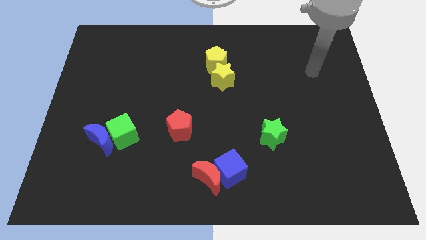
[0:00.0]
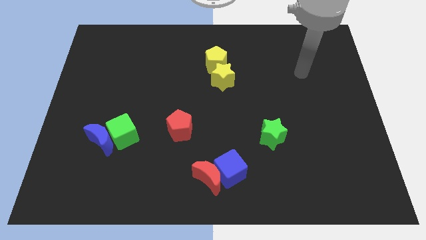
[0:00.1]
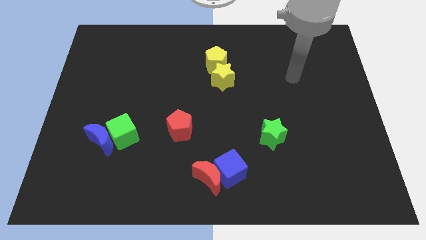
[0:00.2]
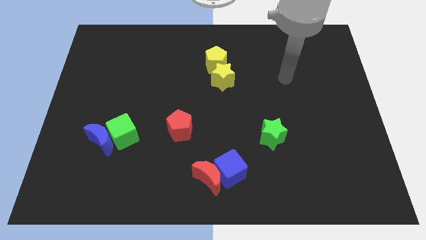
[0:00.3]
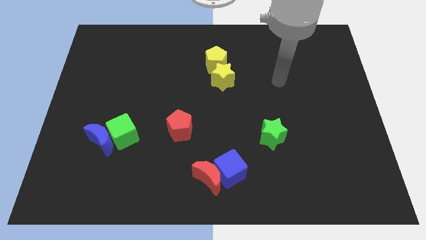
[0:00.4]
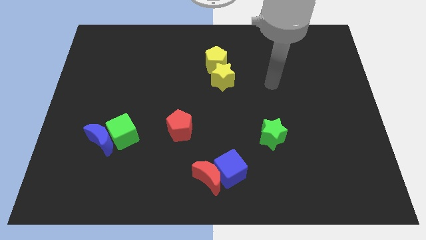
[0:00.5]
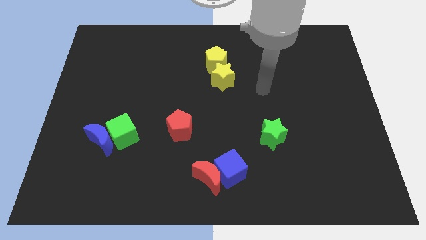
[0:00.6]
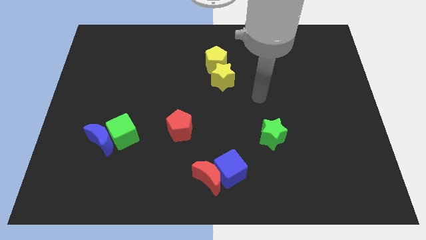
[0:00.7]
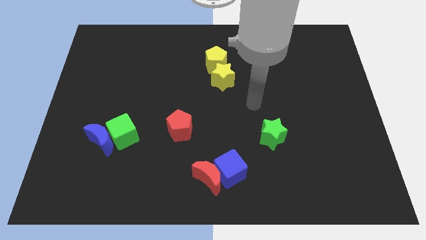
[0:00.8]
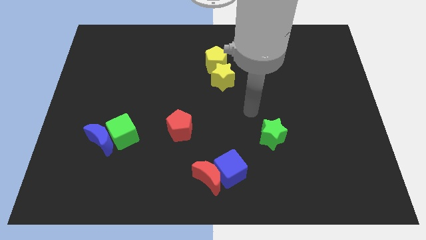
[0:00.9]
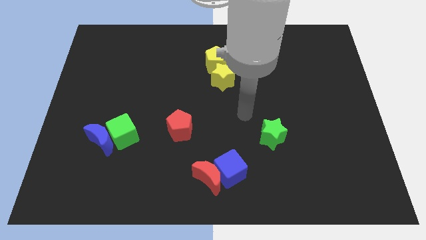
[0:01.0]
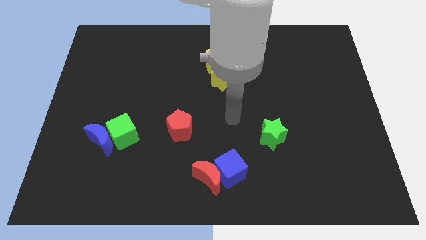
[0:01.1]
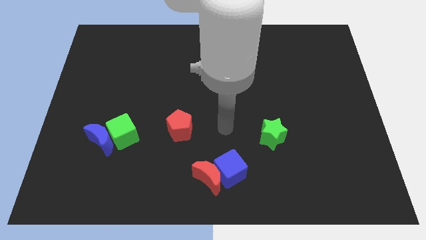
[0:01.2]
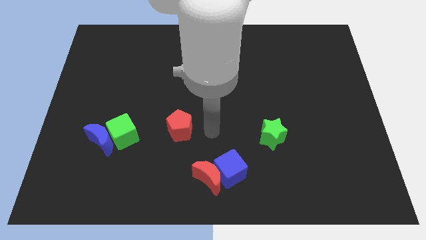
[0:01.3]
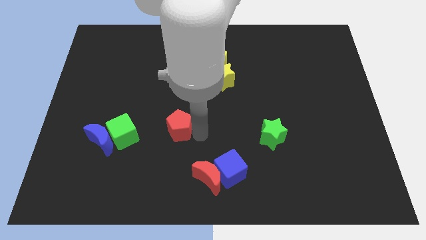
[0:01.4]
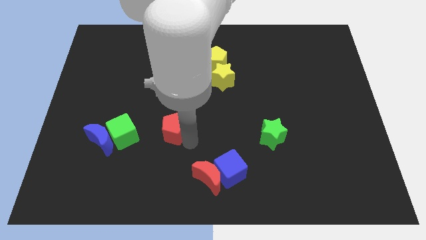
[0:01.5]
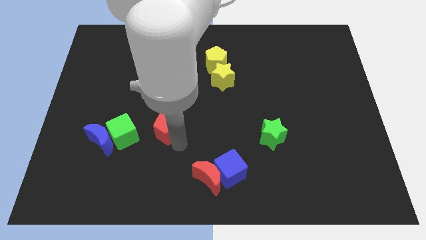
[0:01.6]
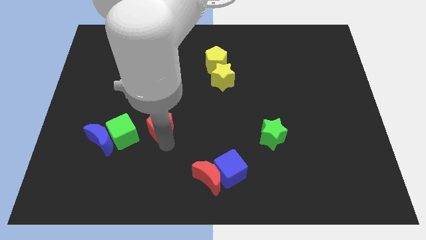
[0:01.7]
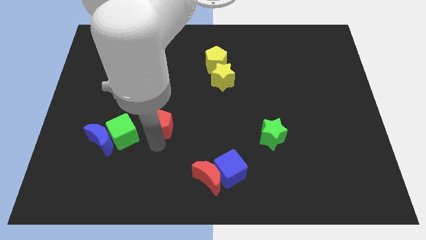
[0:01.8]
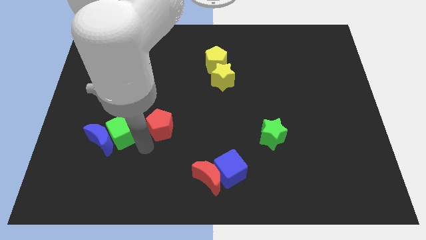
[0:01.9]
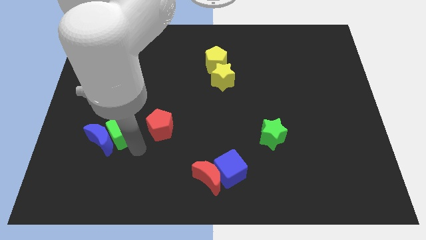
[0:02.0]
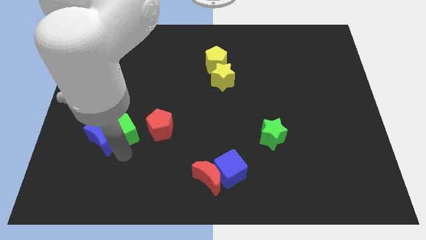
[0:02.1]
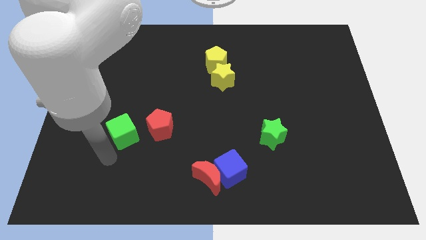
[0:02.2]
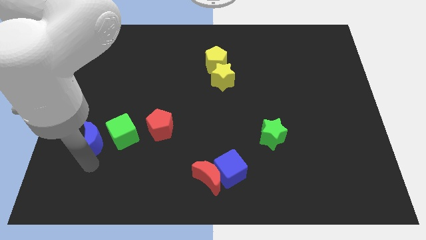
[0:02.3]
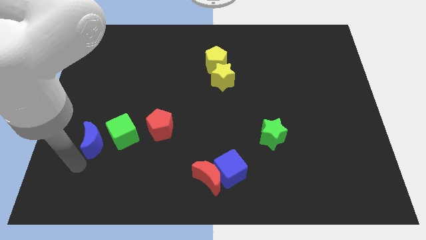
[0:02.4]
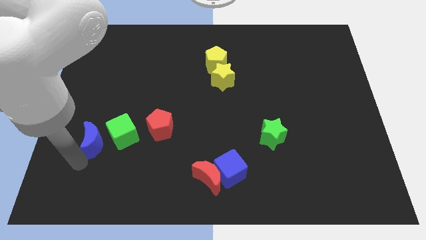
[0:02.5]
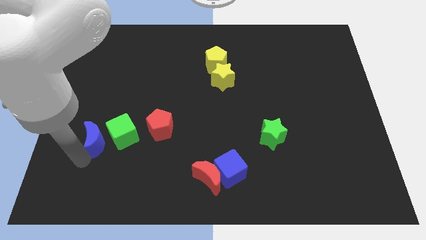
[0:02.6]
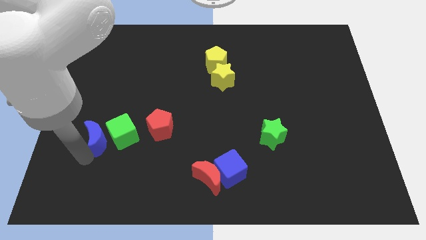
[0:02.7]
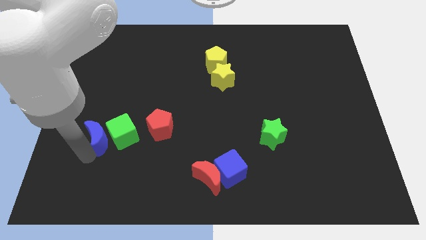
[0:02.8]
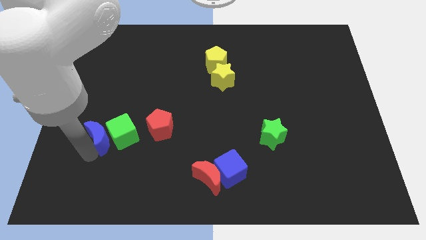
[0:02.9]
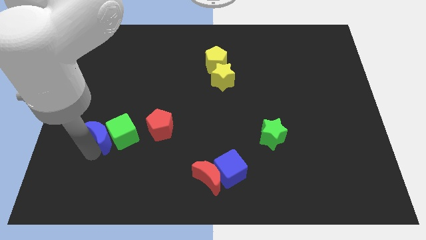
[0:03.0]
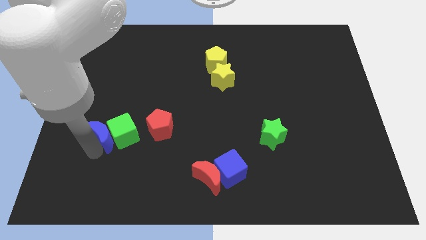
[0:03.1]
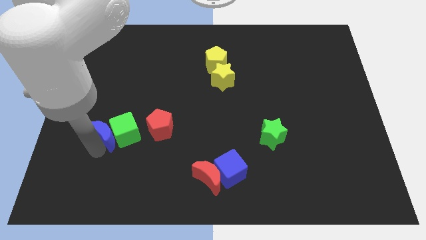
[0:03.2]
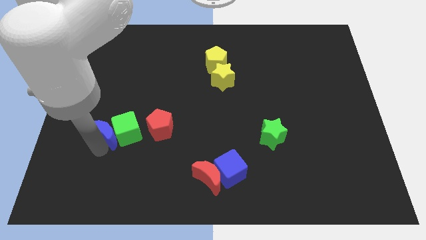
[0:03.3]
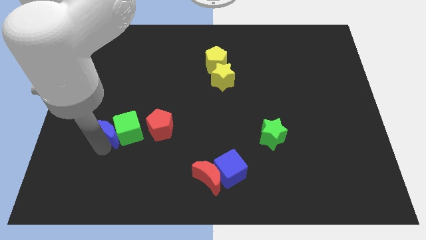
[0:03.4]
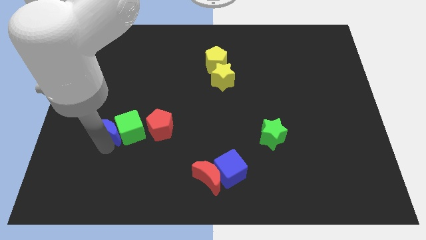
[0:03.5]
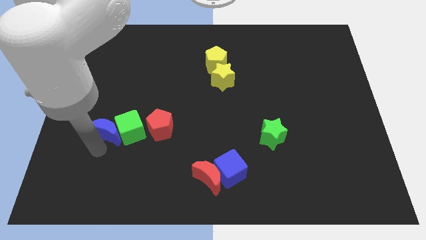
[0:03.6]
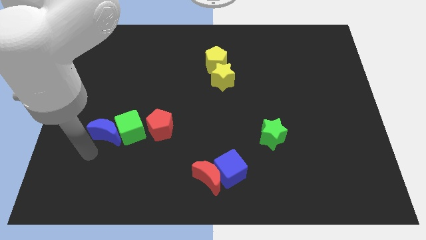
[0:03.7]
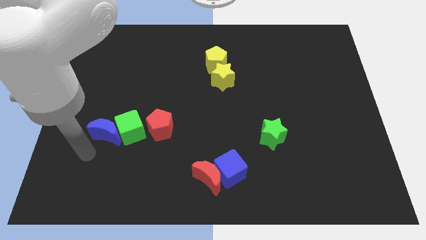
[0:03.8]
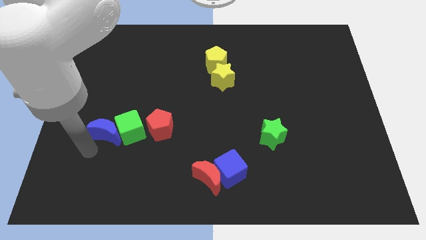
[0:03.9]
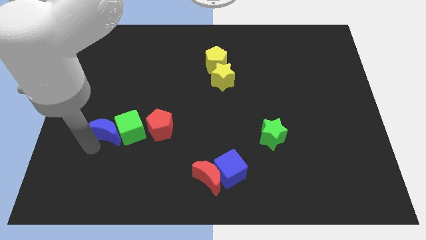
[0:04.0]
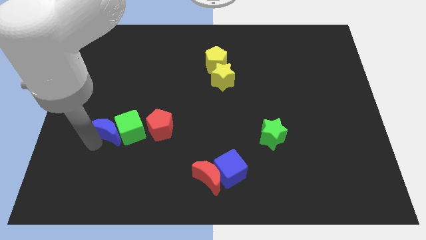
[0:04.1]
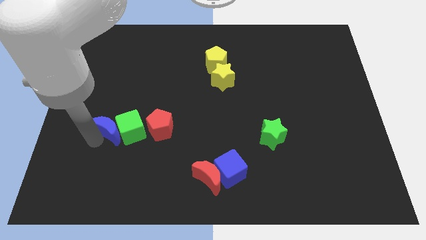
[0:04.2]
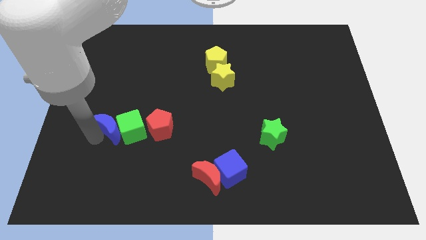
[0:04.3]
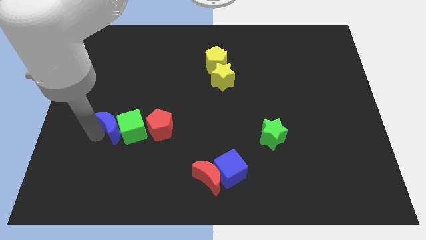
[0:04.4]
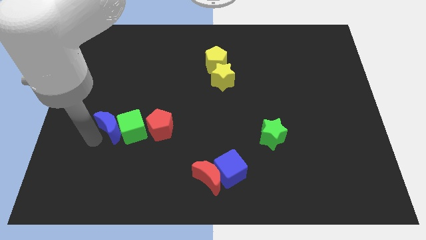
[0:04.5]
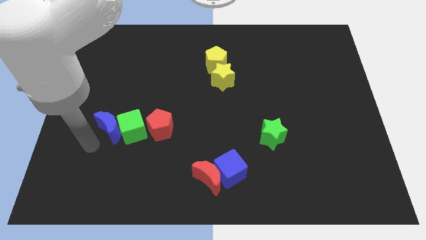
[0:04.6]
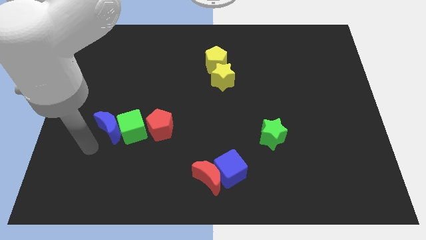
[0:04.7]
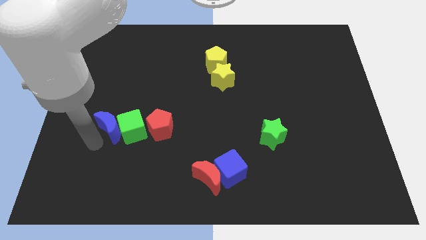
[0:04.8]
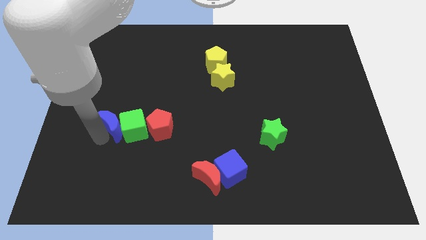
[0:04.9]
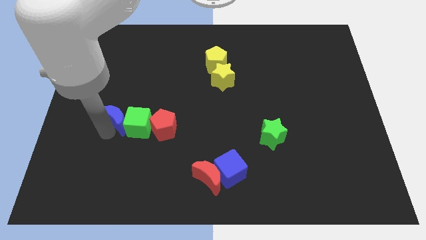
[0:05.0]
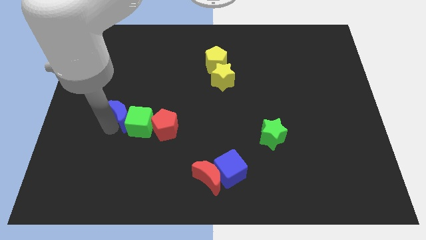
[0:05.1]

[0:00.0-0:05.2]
slightly slide the blue moon up and right

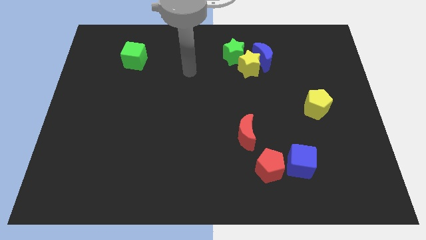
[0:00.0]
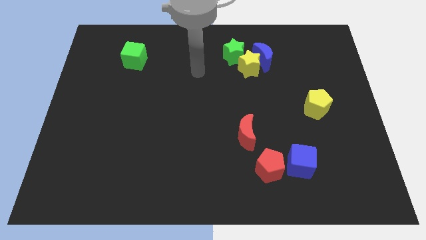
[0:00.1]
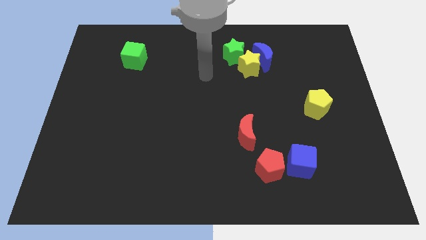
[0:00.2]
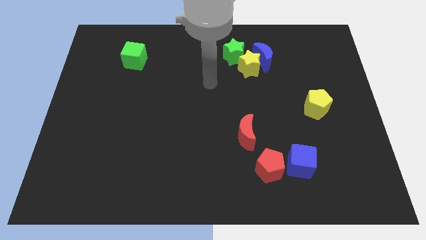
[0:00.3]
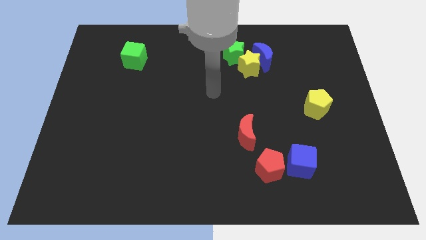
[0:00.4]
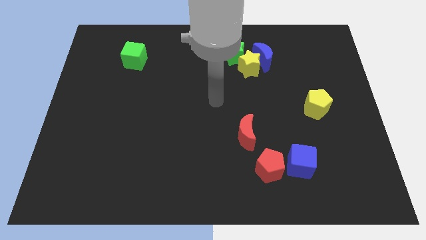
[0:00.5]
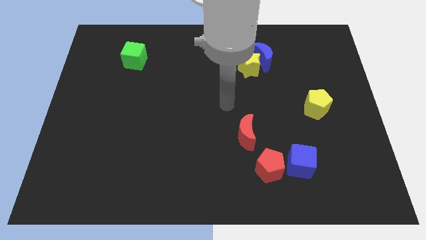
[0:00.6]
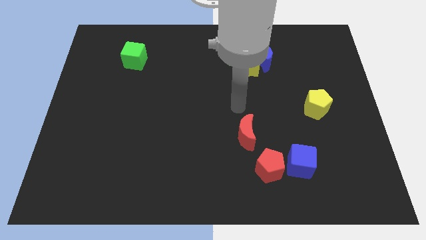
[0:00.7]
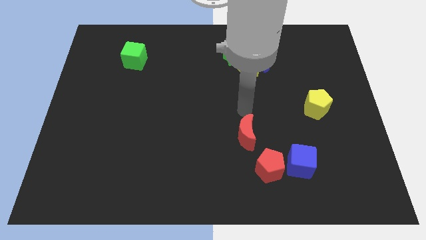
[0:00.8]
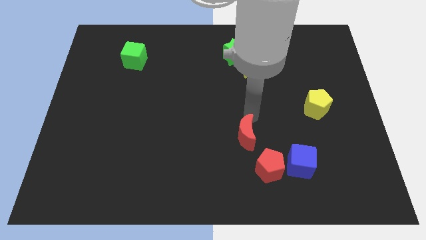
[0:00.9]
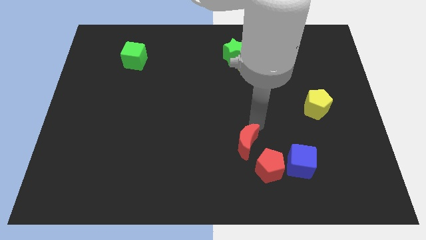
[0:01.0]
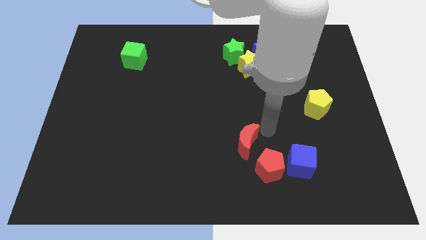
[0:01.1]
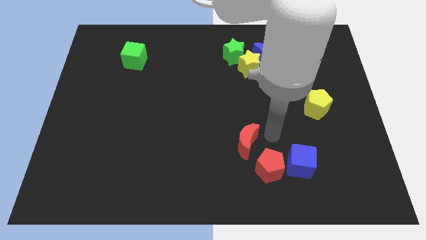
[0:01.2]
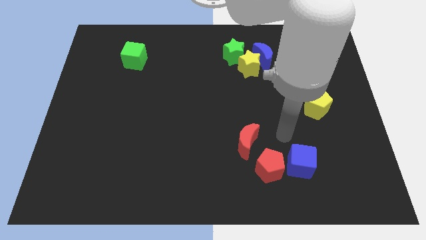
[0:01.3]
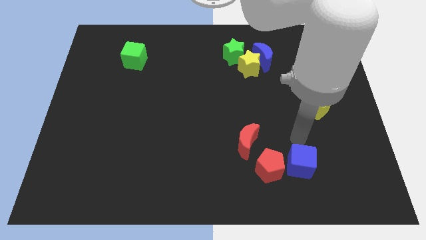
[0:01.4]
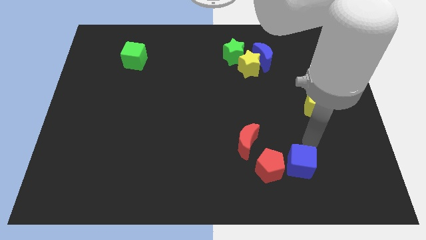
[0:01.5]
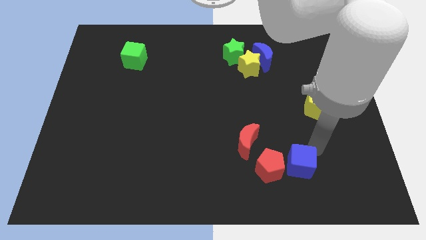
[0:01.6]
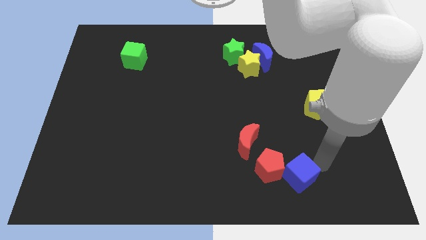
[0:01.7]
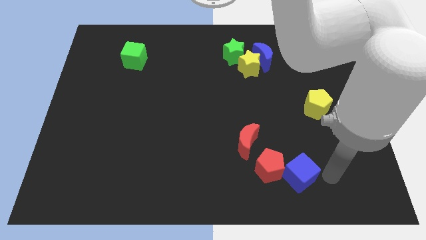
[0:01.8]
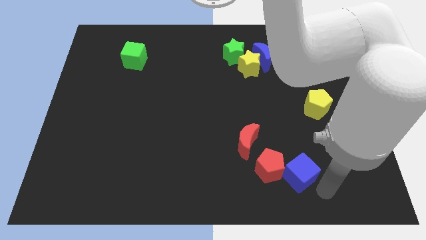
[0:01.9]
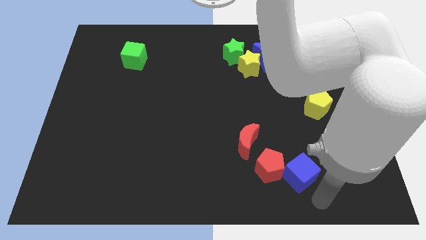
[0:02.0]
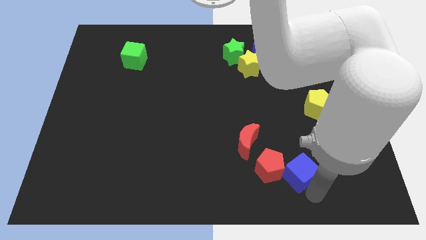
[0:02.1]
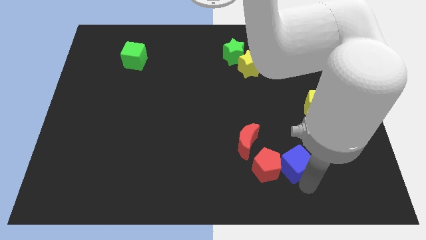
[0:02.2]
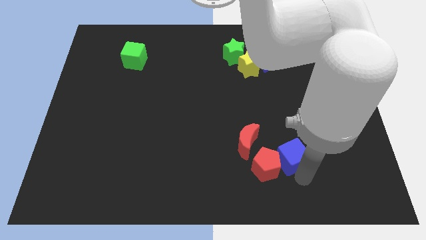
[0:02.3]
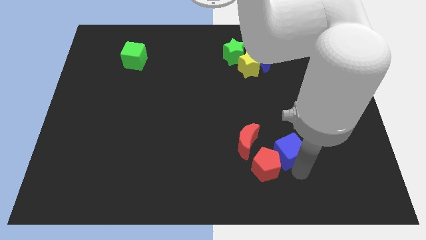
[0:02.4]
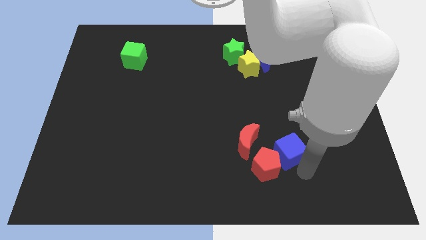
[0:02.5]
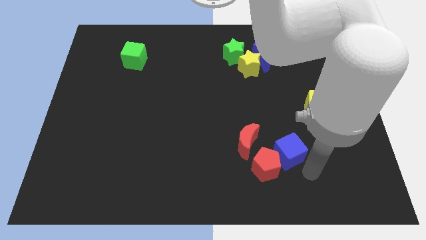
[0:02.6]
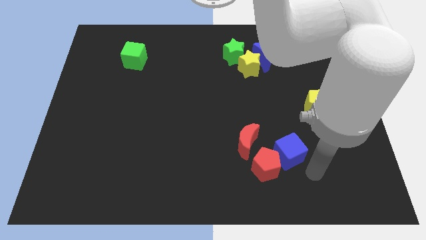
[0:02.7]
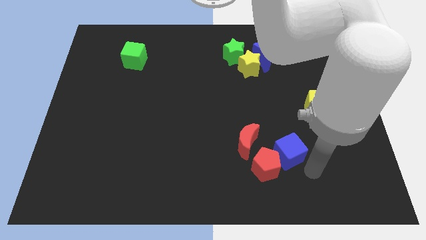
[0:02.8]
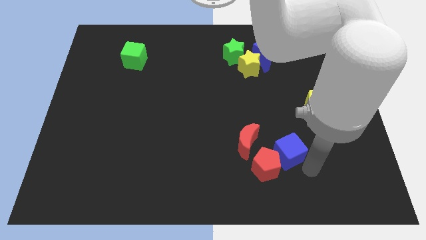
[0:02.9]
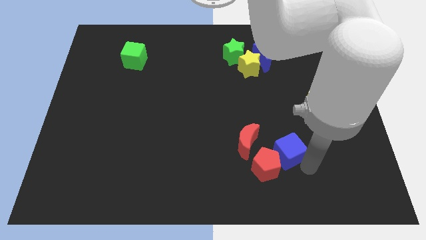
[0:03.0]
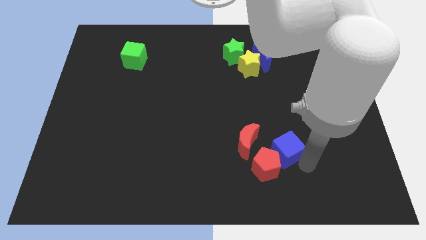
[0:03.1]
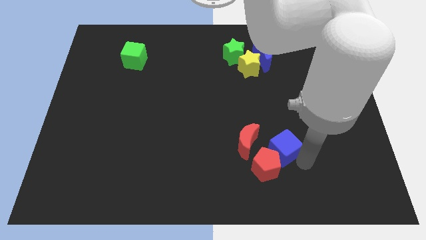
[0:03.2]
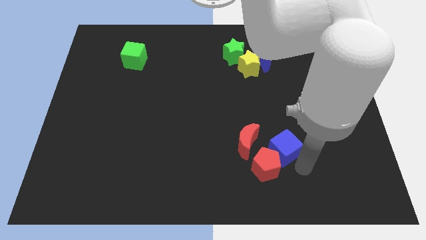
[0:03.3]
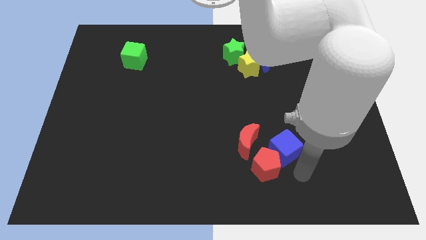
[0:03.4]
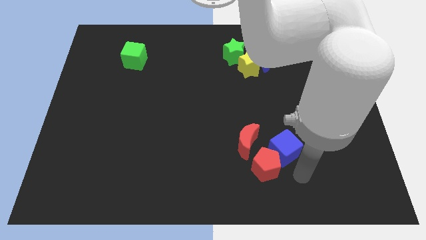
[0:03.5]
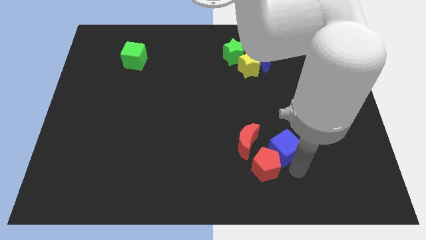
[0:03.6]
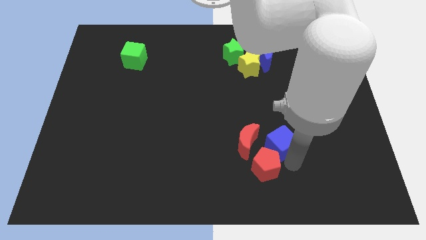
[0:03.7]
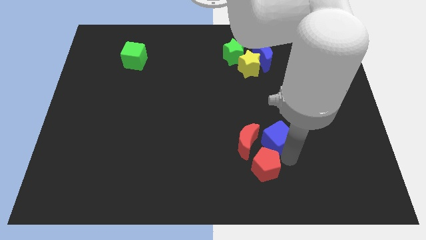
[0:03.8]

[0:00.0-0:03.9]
slightly move the blue cube up and then to the left
